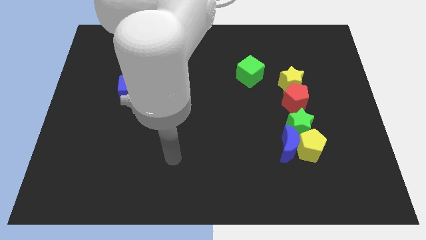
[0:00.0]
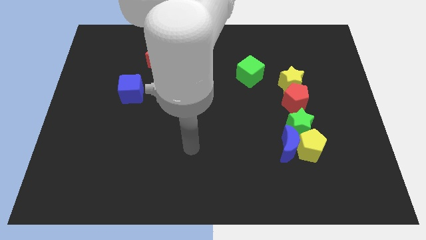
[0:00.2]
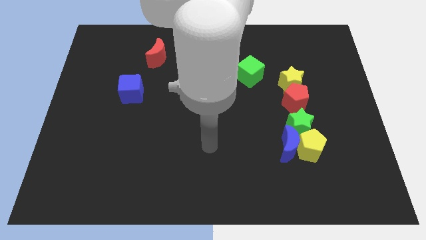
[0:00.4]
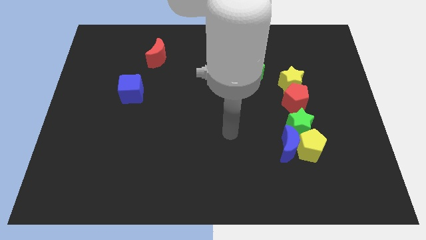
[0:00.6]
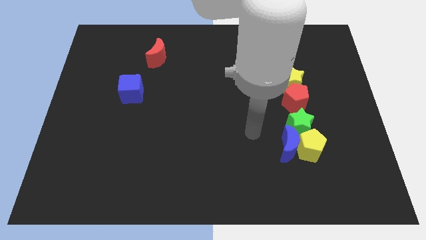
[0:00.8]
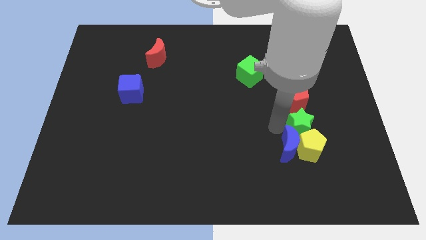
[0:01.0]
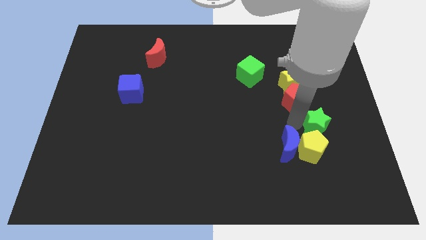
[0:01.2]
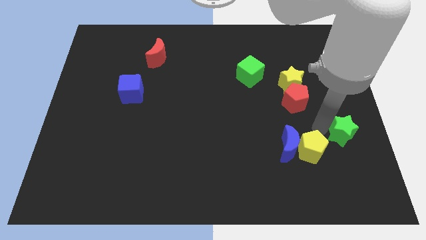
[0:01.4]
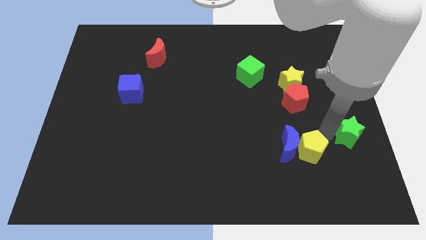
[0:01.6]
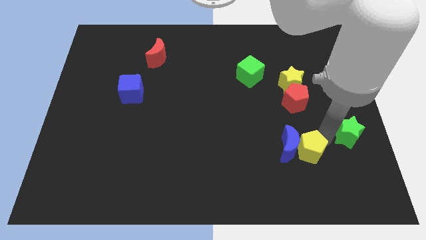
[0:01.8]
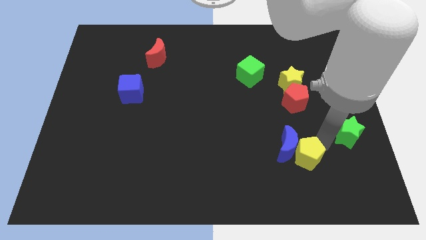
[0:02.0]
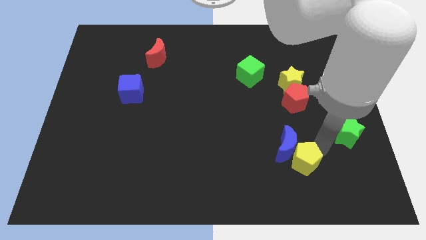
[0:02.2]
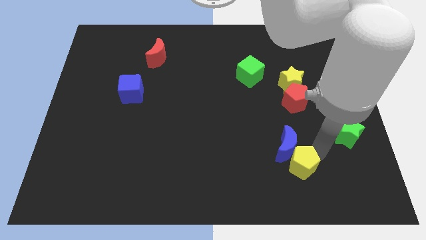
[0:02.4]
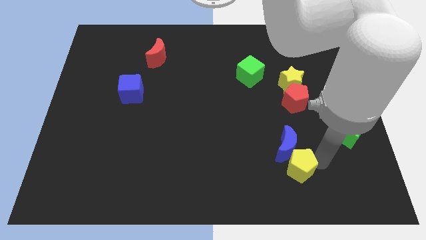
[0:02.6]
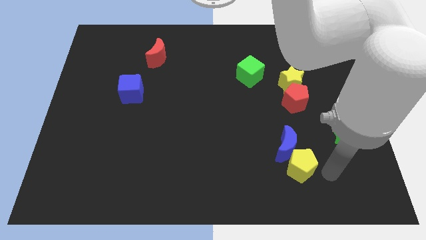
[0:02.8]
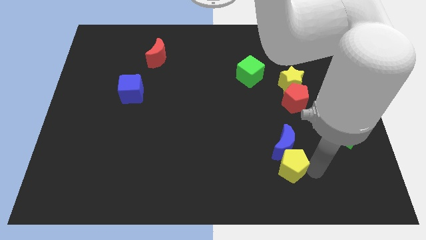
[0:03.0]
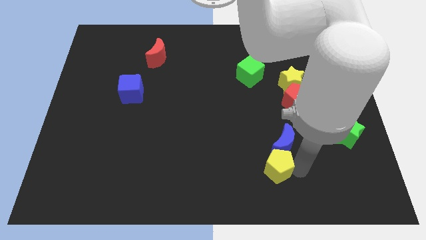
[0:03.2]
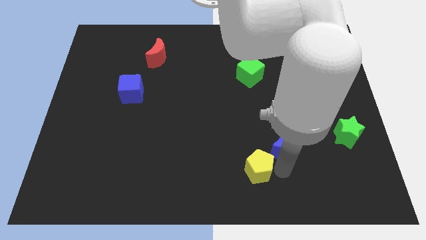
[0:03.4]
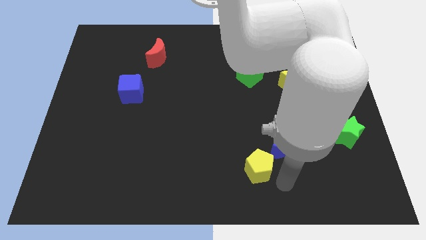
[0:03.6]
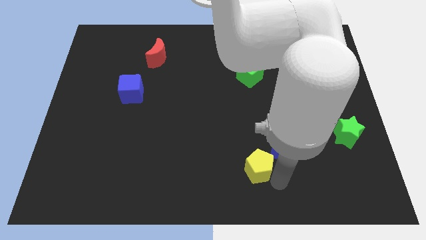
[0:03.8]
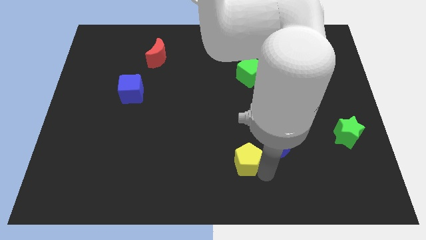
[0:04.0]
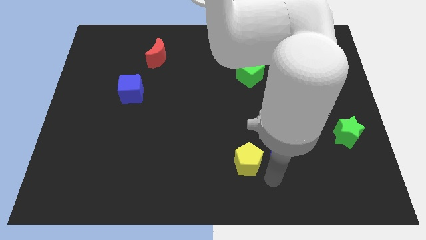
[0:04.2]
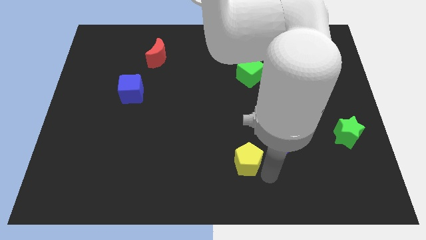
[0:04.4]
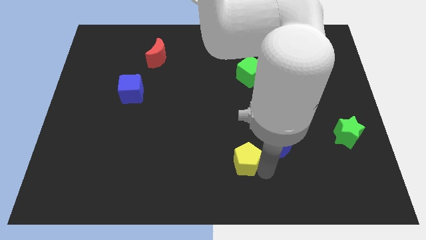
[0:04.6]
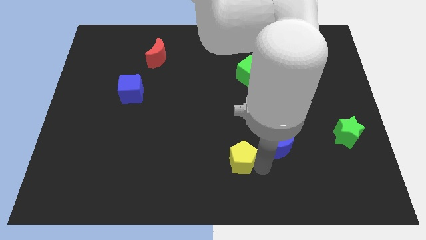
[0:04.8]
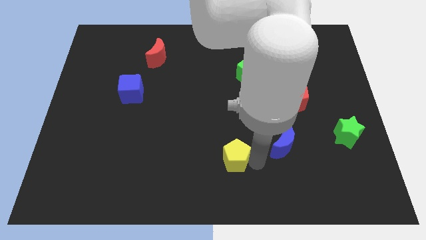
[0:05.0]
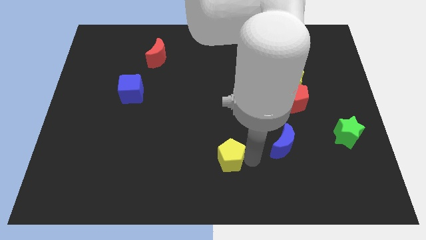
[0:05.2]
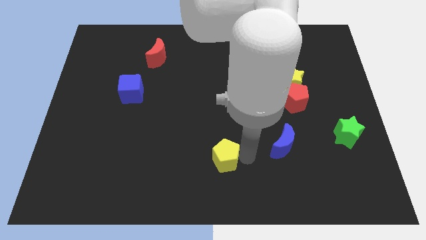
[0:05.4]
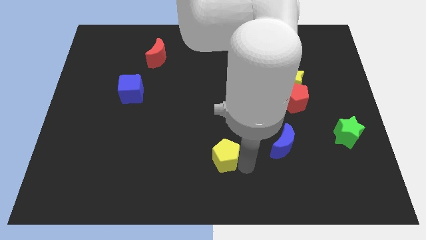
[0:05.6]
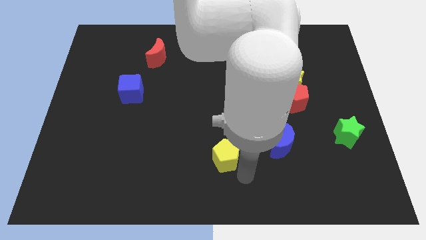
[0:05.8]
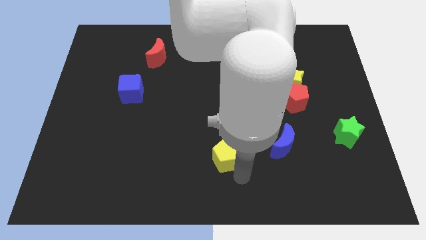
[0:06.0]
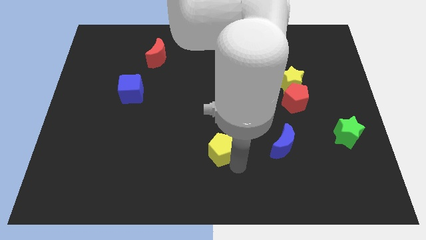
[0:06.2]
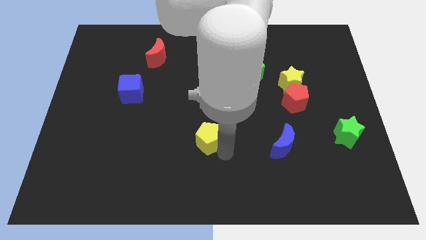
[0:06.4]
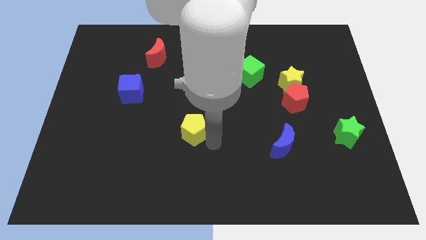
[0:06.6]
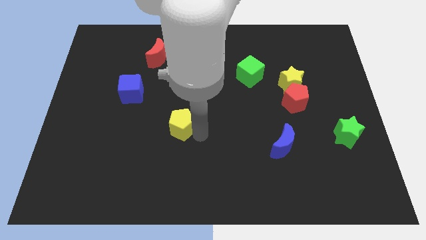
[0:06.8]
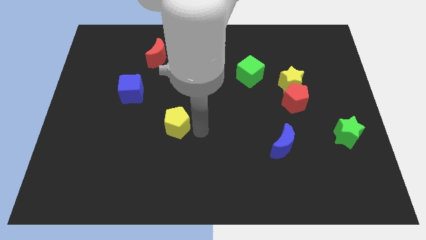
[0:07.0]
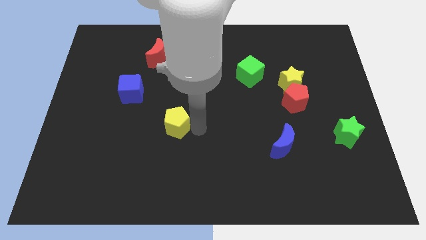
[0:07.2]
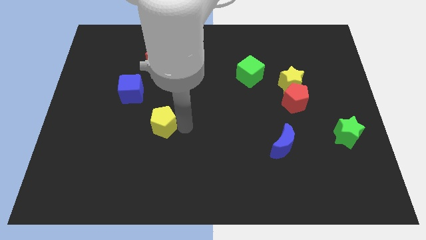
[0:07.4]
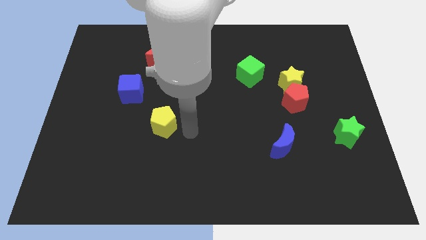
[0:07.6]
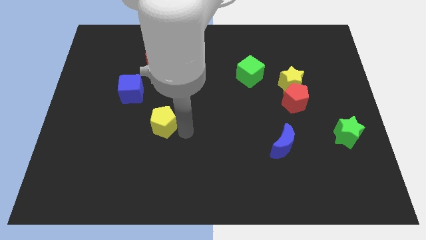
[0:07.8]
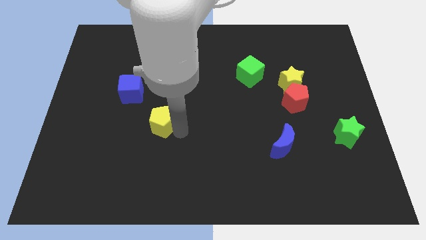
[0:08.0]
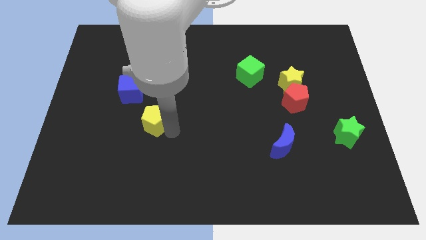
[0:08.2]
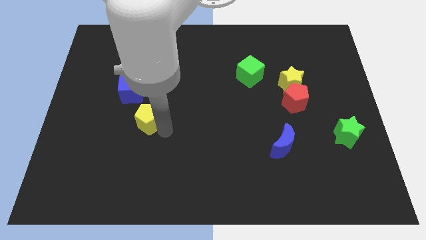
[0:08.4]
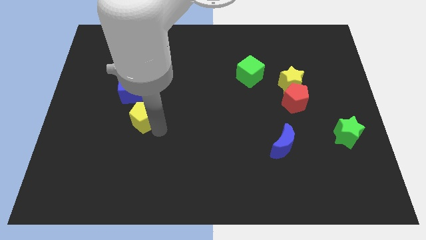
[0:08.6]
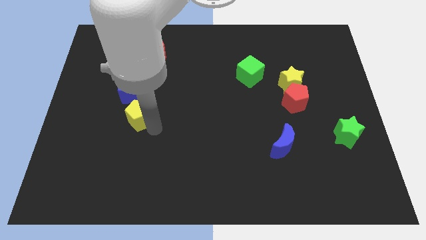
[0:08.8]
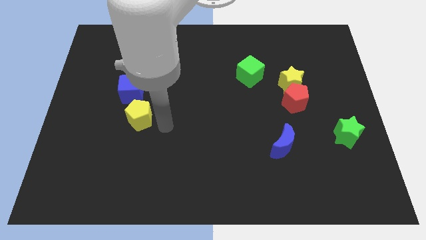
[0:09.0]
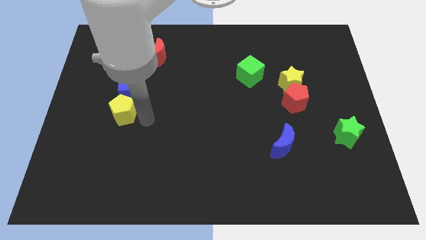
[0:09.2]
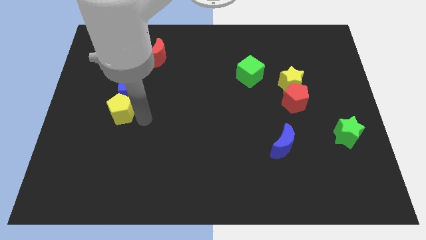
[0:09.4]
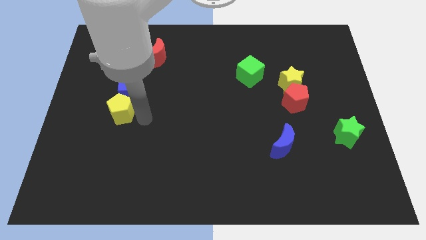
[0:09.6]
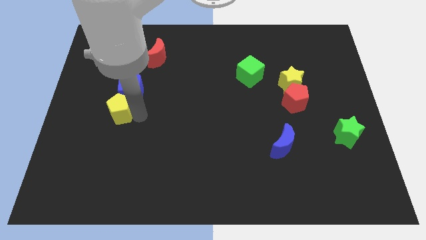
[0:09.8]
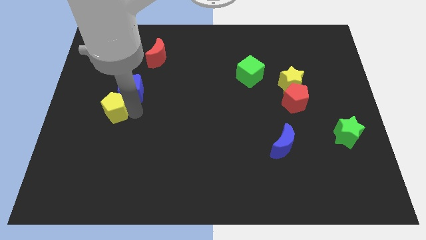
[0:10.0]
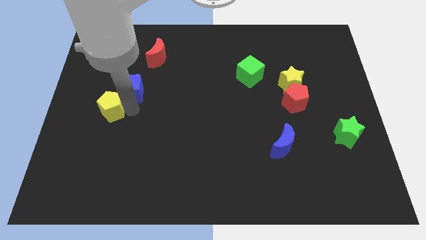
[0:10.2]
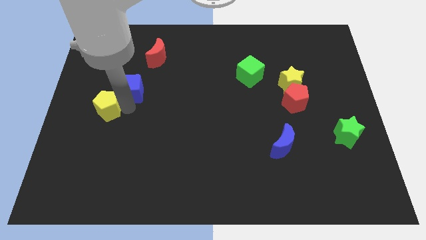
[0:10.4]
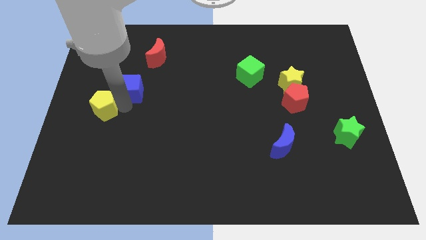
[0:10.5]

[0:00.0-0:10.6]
push the yellow pentagon to the left side of the board

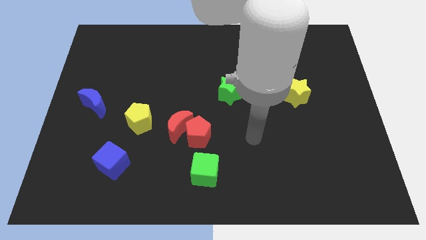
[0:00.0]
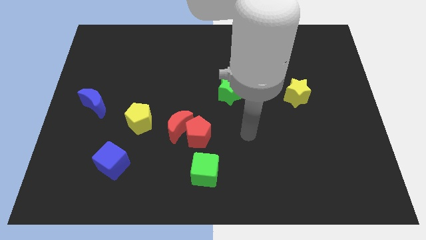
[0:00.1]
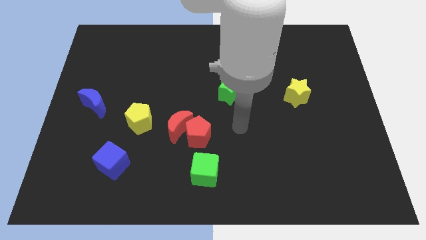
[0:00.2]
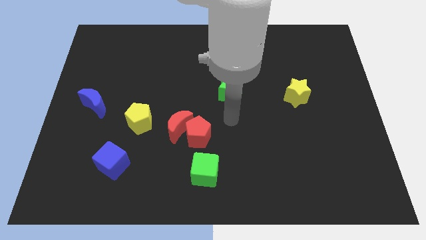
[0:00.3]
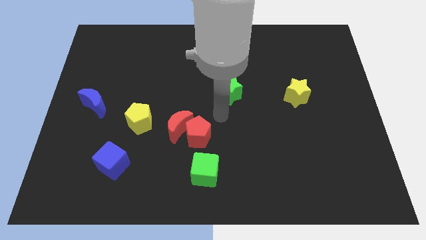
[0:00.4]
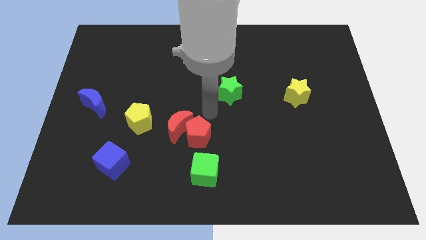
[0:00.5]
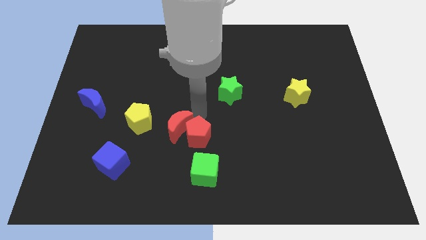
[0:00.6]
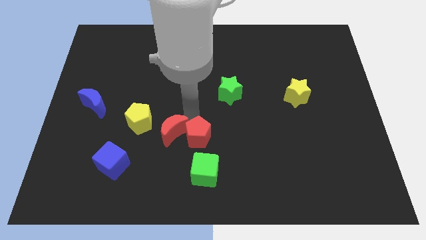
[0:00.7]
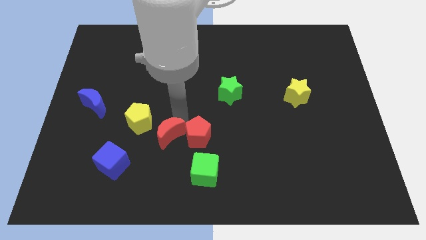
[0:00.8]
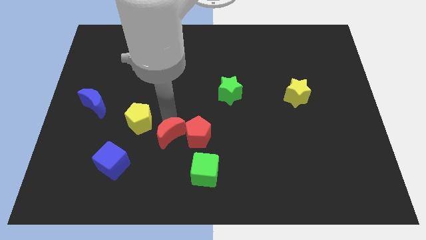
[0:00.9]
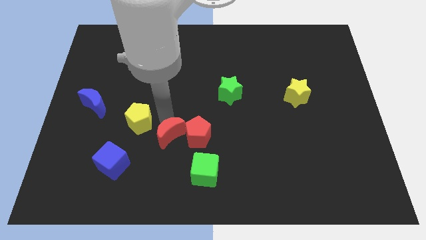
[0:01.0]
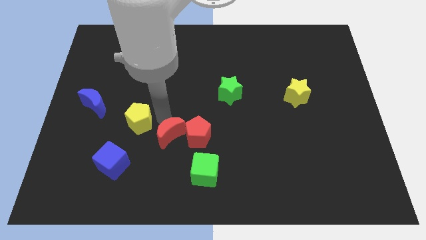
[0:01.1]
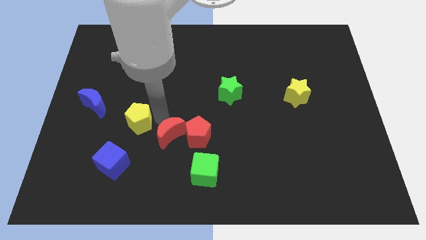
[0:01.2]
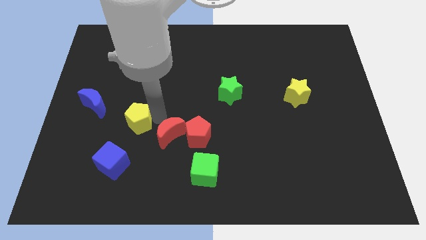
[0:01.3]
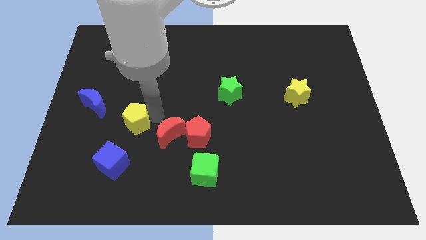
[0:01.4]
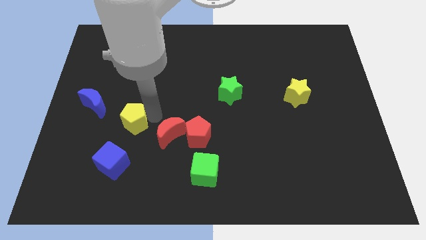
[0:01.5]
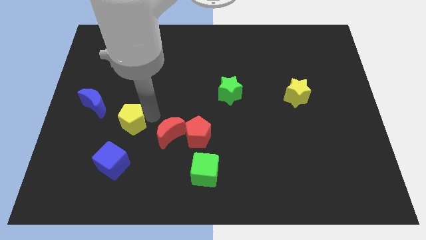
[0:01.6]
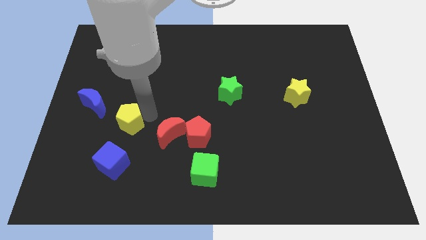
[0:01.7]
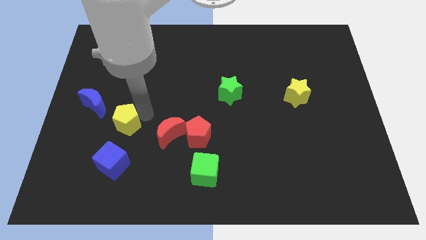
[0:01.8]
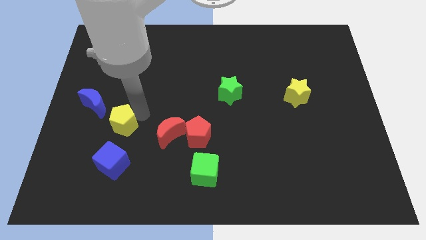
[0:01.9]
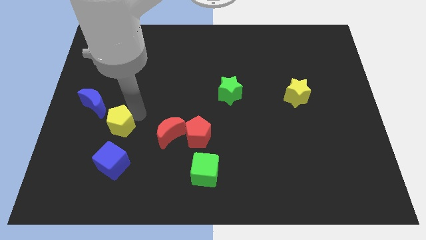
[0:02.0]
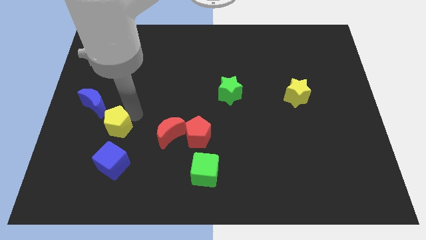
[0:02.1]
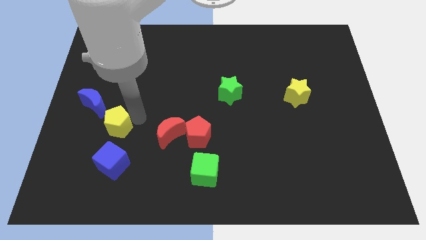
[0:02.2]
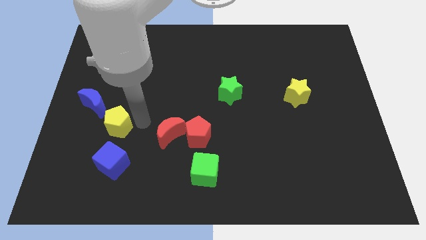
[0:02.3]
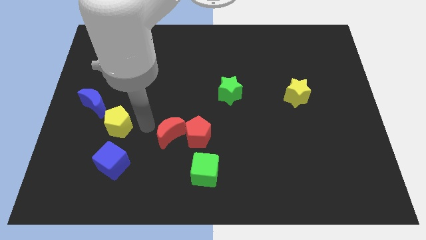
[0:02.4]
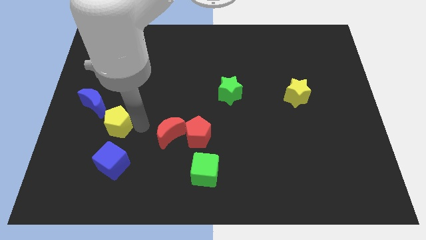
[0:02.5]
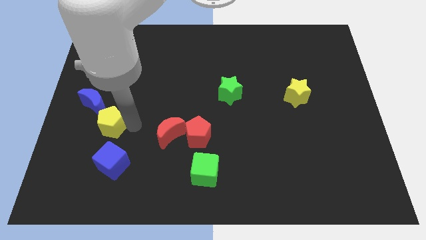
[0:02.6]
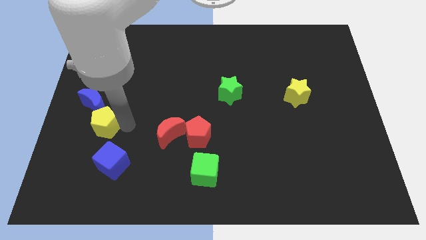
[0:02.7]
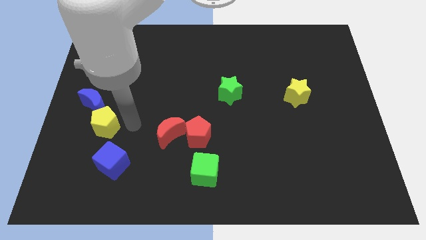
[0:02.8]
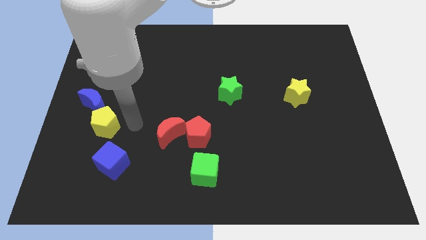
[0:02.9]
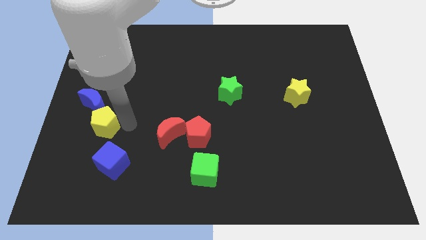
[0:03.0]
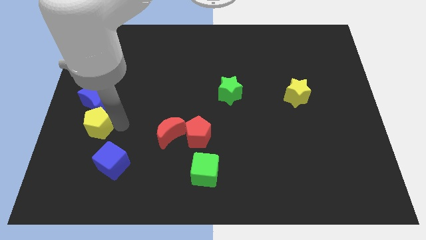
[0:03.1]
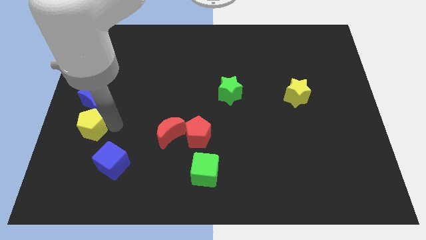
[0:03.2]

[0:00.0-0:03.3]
put the yellow pentagon to the center left
